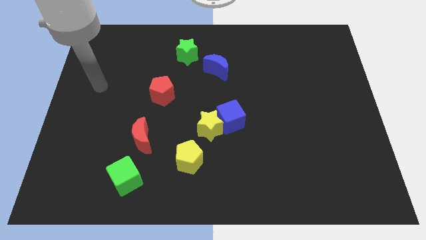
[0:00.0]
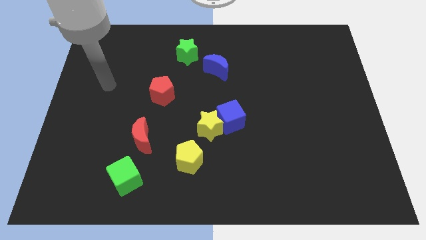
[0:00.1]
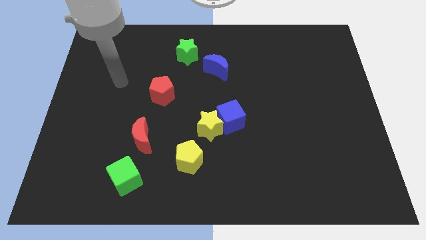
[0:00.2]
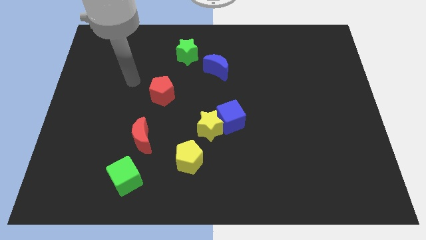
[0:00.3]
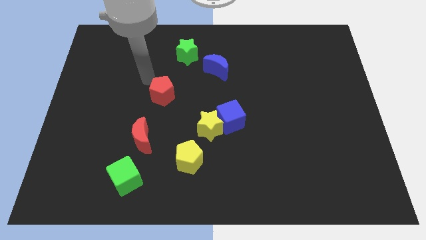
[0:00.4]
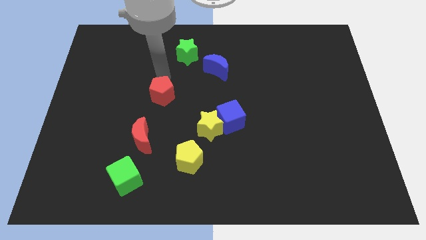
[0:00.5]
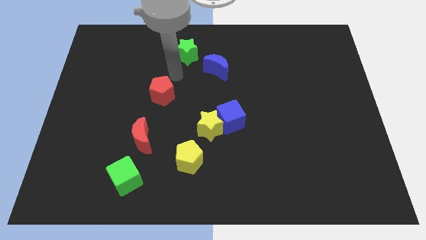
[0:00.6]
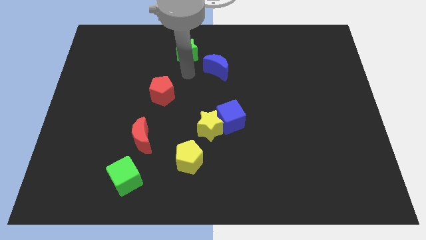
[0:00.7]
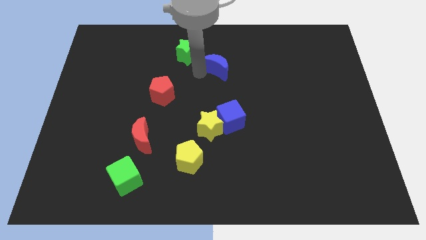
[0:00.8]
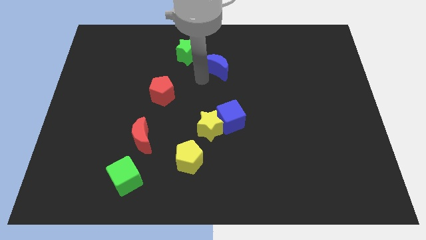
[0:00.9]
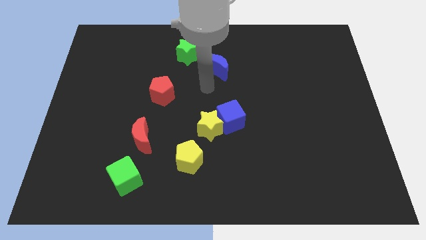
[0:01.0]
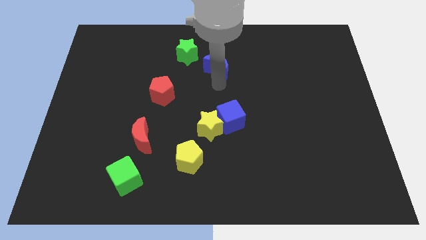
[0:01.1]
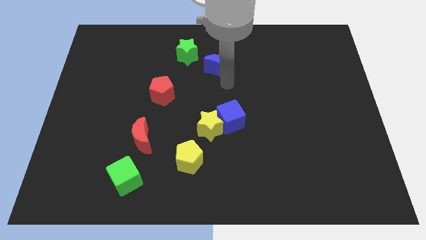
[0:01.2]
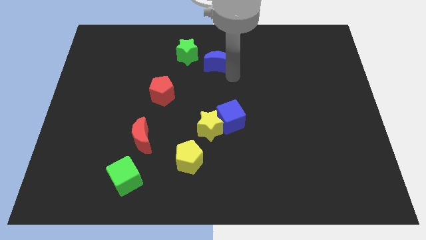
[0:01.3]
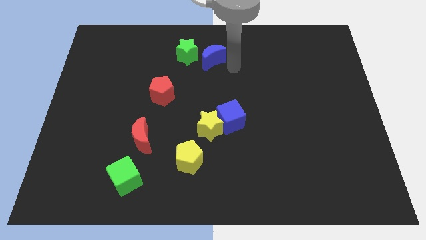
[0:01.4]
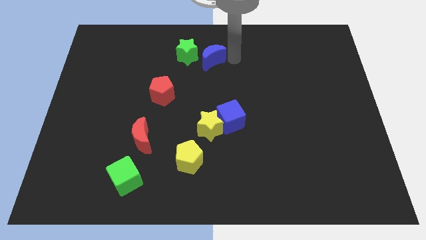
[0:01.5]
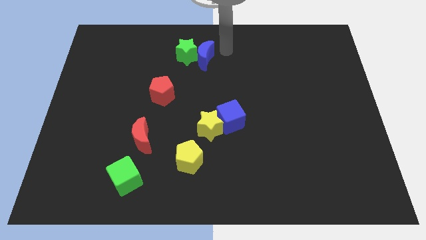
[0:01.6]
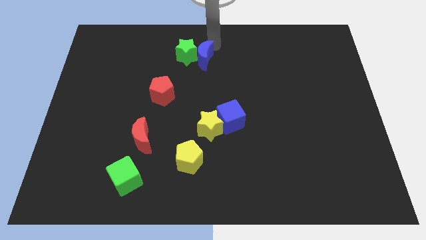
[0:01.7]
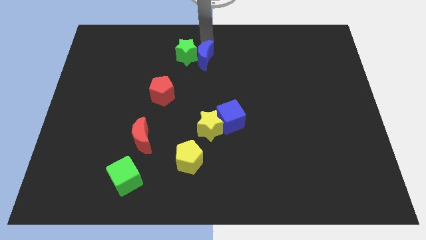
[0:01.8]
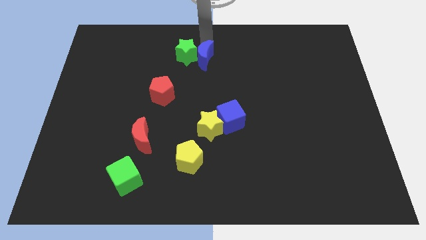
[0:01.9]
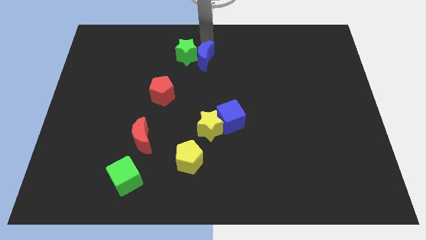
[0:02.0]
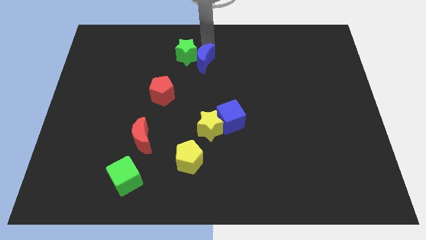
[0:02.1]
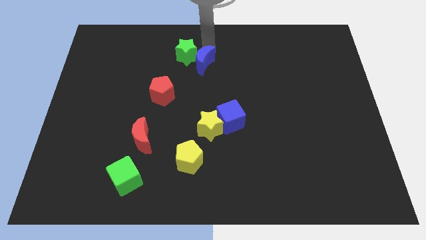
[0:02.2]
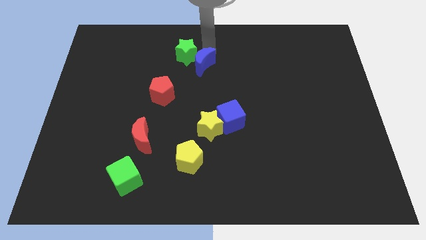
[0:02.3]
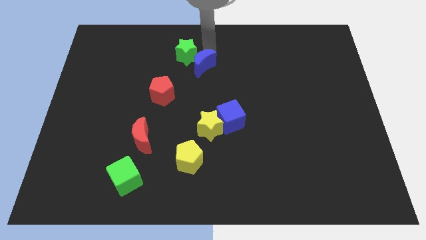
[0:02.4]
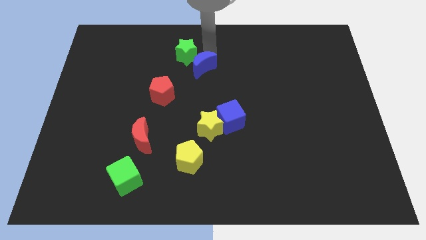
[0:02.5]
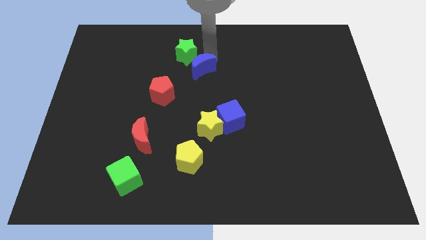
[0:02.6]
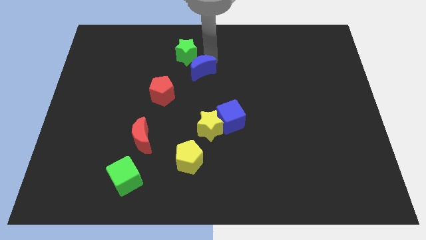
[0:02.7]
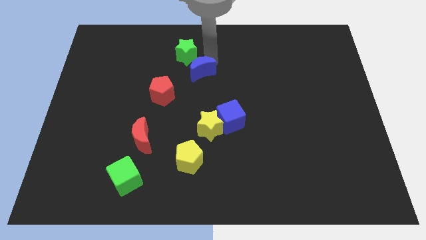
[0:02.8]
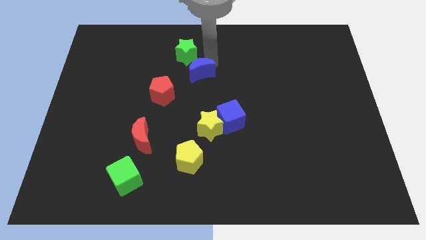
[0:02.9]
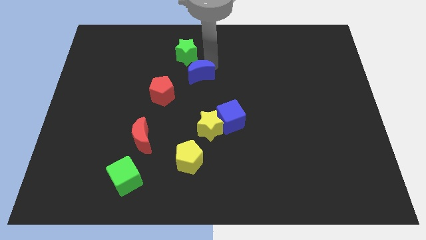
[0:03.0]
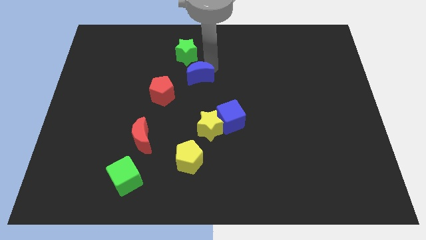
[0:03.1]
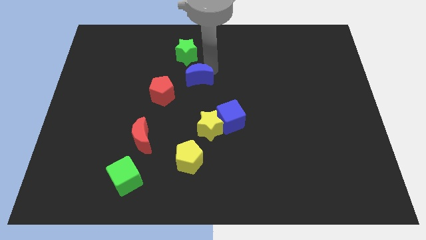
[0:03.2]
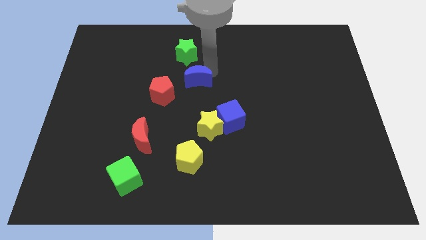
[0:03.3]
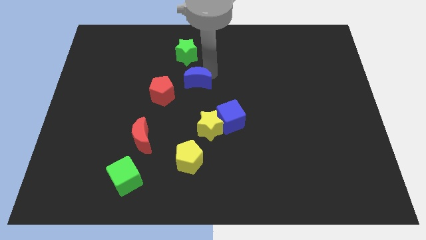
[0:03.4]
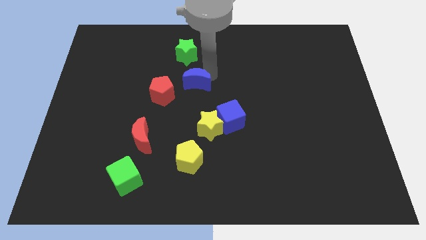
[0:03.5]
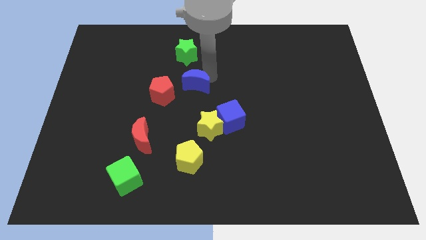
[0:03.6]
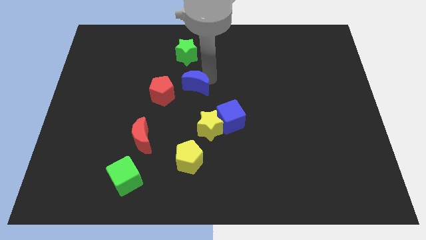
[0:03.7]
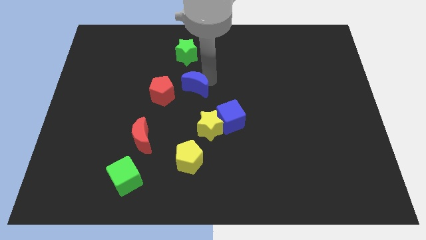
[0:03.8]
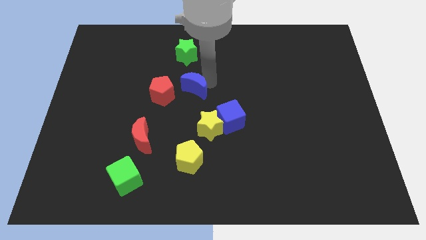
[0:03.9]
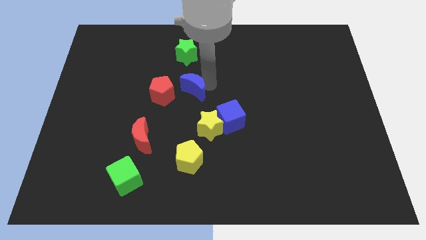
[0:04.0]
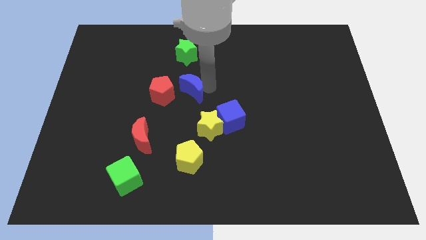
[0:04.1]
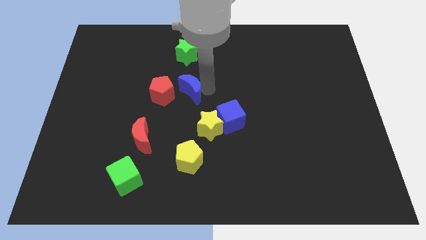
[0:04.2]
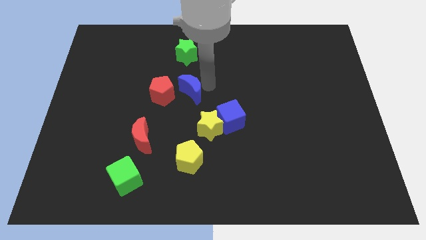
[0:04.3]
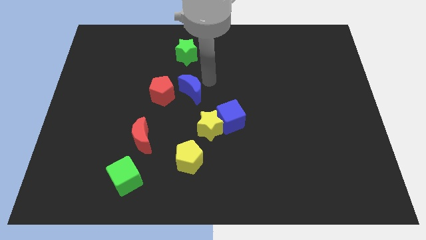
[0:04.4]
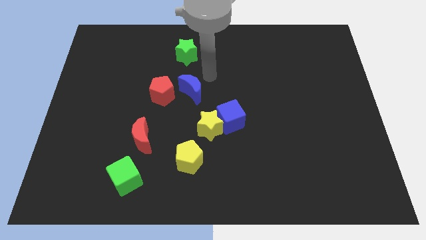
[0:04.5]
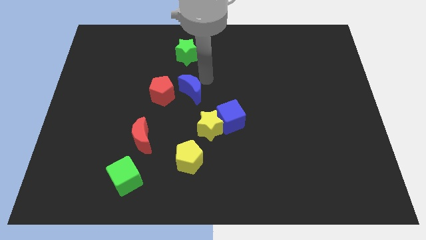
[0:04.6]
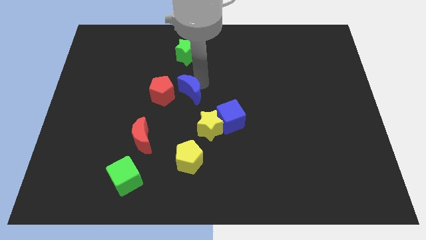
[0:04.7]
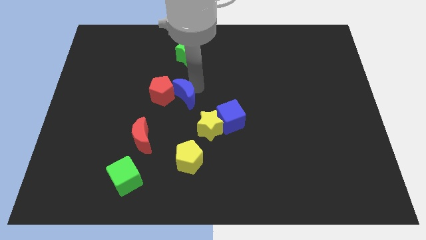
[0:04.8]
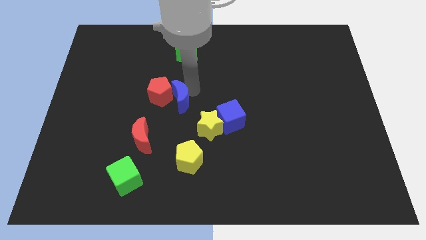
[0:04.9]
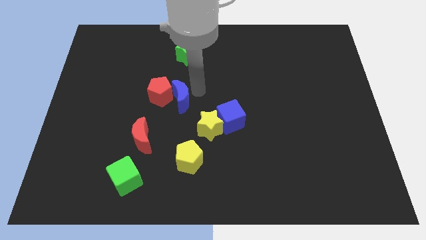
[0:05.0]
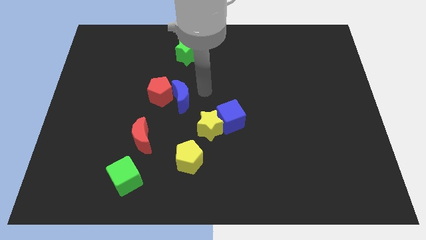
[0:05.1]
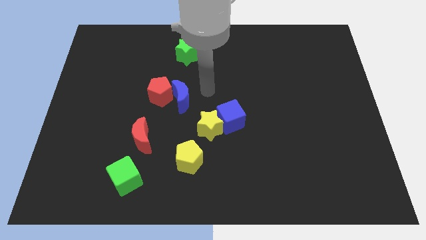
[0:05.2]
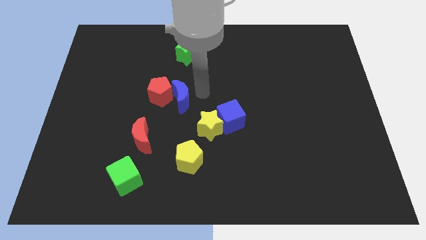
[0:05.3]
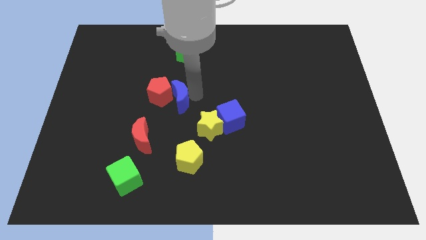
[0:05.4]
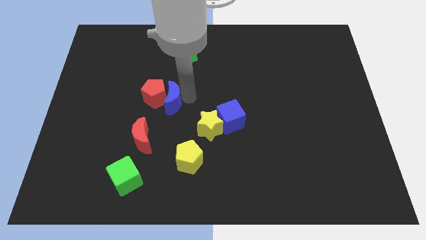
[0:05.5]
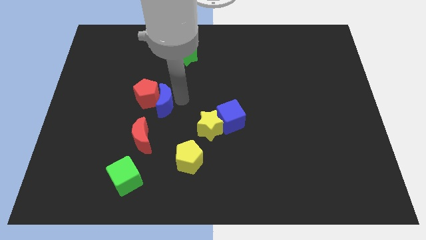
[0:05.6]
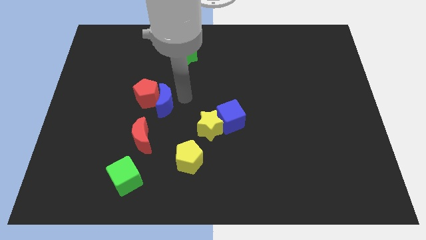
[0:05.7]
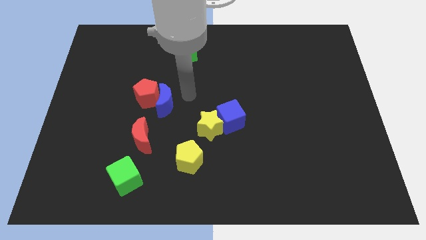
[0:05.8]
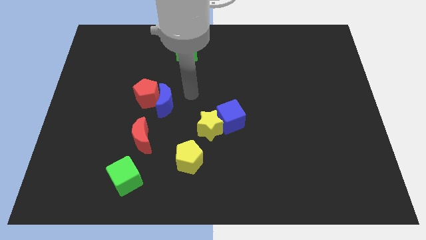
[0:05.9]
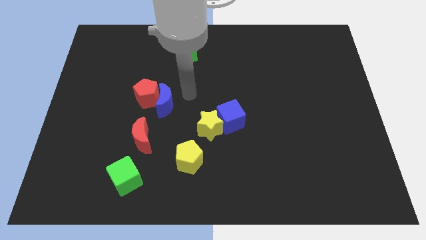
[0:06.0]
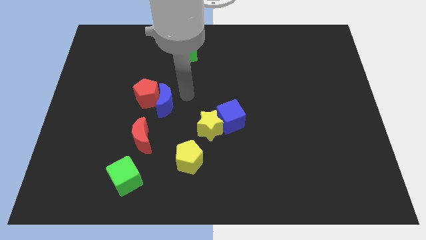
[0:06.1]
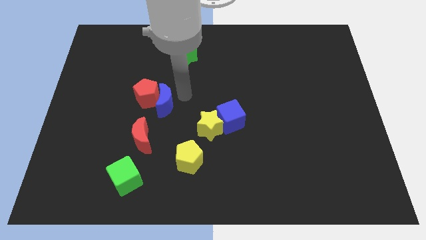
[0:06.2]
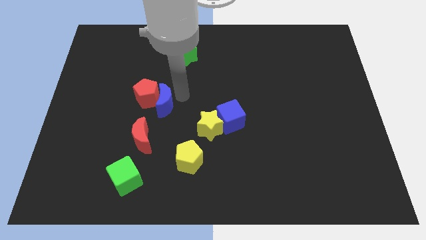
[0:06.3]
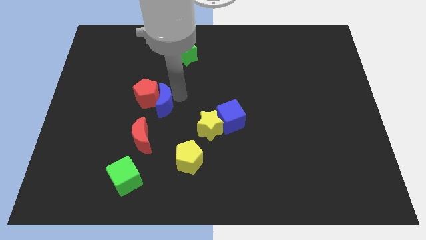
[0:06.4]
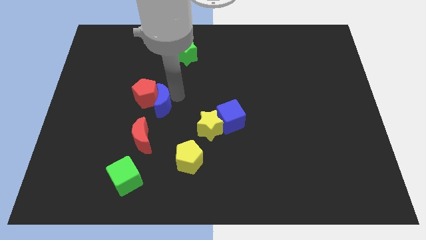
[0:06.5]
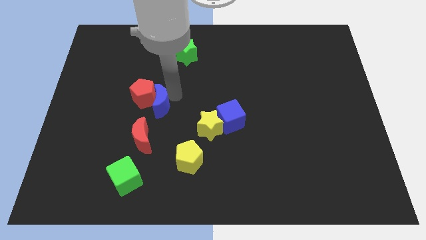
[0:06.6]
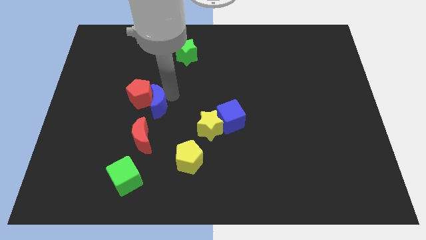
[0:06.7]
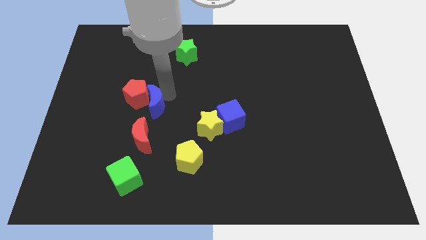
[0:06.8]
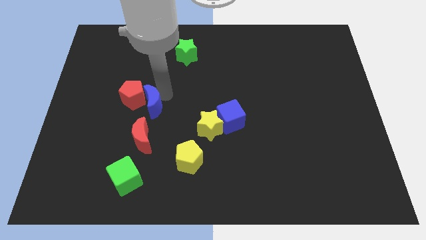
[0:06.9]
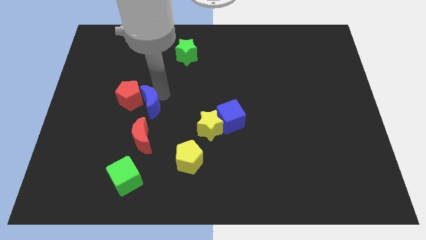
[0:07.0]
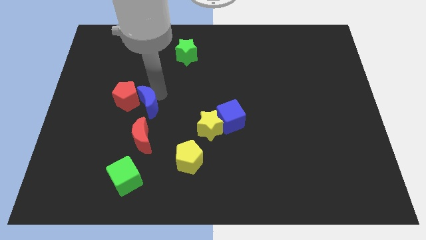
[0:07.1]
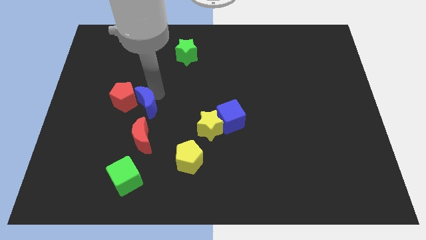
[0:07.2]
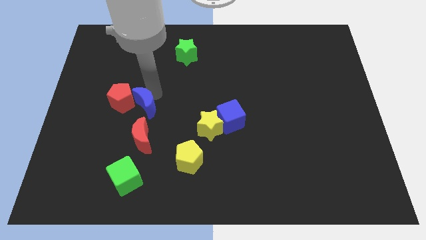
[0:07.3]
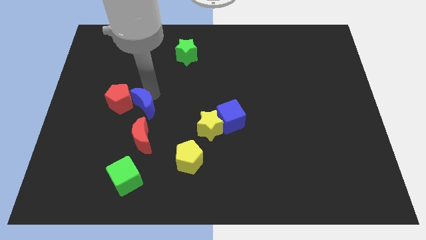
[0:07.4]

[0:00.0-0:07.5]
move the blue moon downwards and left diagonally

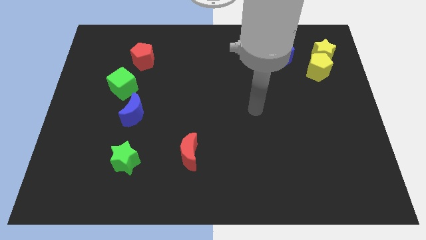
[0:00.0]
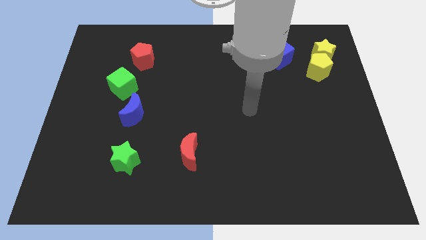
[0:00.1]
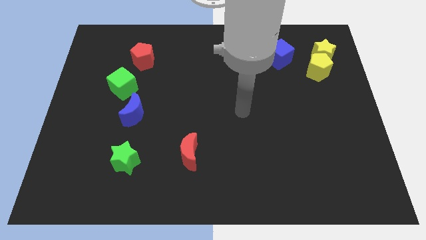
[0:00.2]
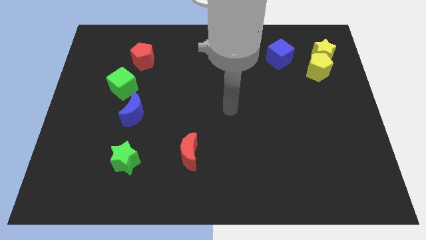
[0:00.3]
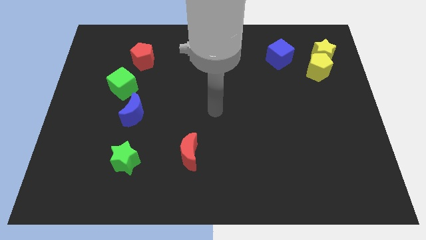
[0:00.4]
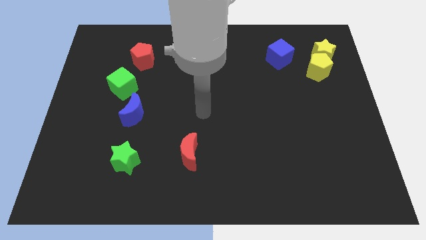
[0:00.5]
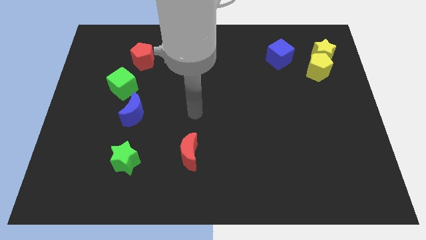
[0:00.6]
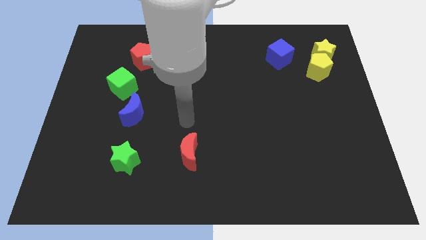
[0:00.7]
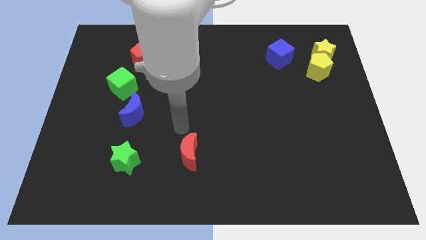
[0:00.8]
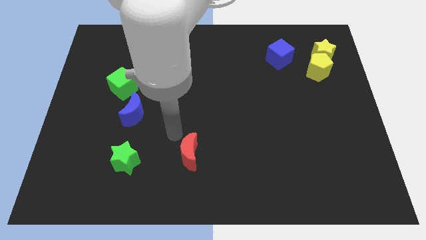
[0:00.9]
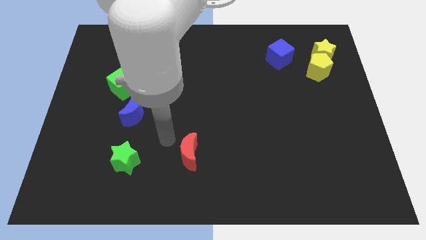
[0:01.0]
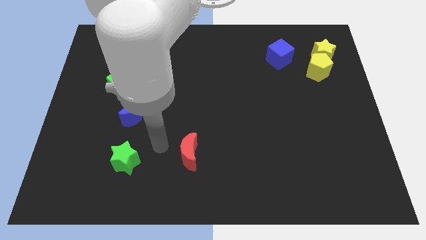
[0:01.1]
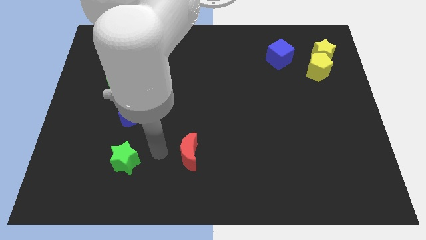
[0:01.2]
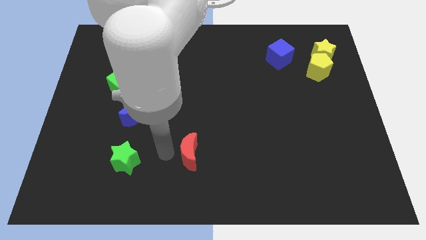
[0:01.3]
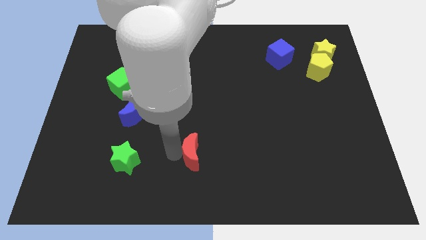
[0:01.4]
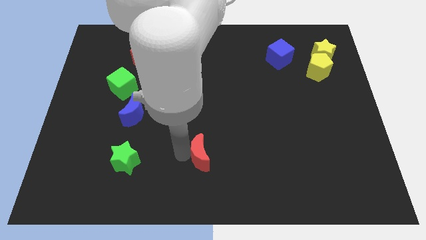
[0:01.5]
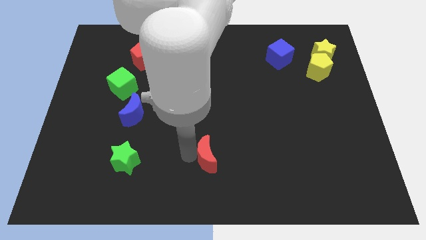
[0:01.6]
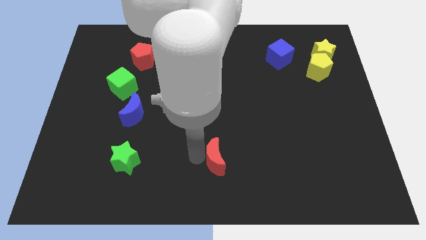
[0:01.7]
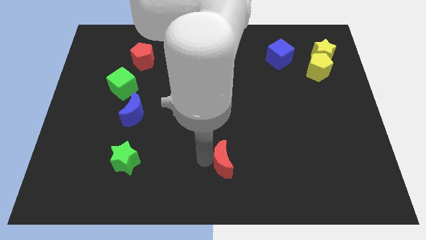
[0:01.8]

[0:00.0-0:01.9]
slightly push the red moon right
